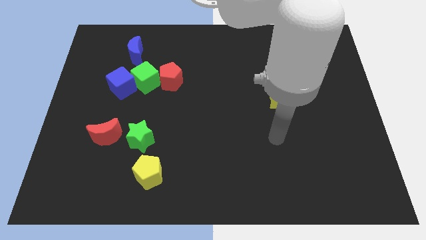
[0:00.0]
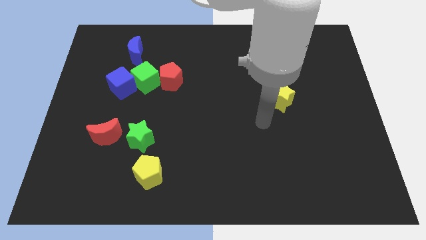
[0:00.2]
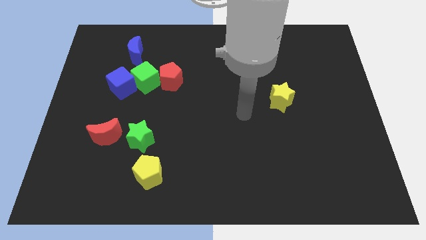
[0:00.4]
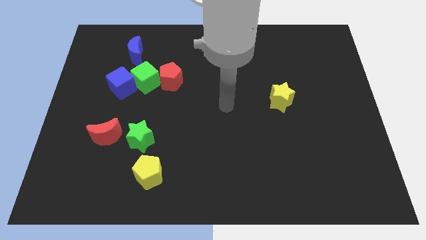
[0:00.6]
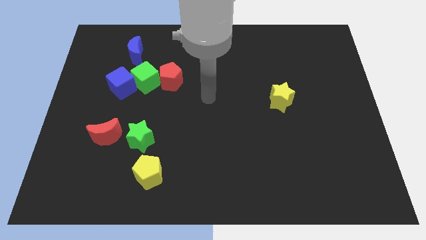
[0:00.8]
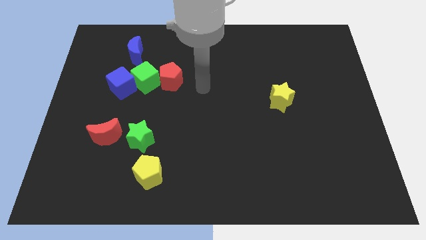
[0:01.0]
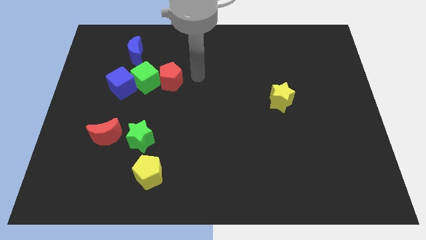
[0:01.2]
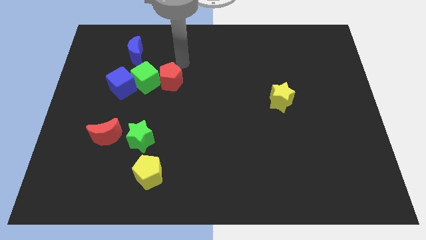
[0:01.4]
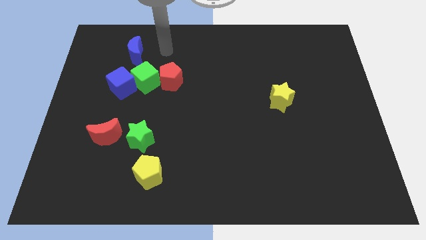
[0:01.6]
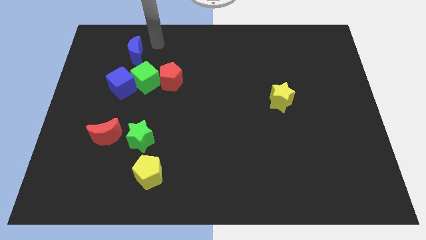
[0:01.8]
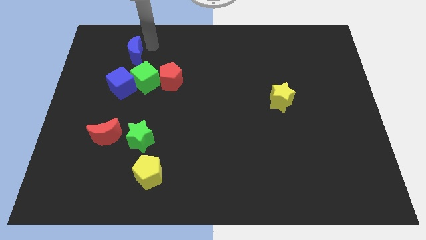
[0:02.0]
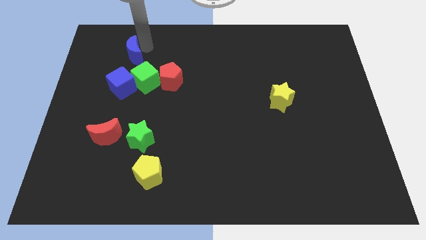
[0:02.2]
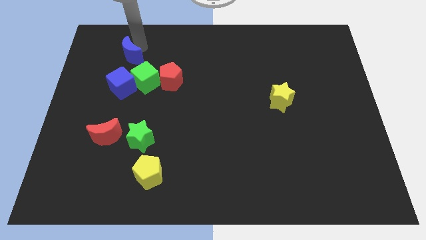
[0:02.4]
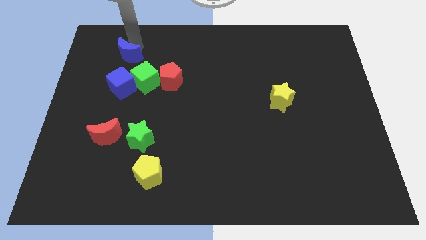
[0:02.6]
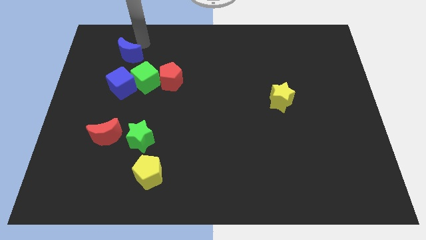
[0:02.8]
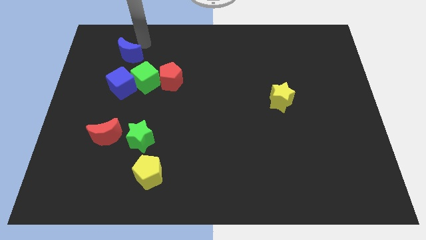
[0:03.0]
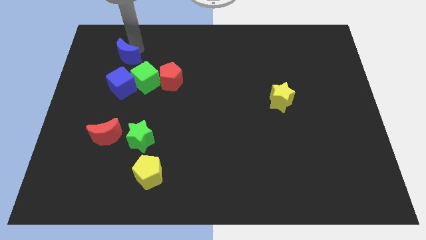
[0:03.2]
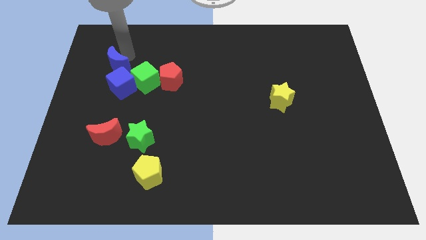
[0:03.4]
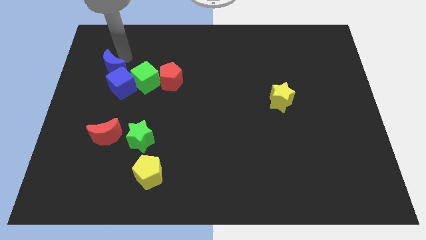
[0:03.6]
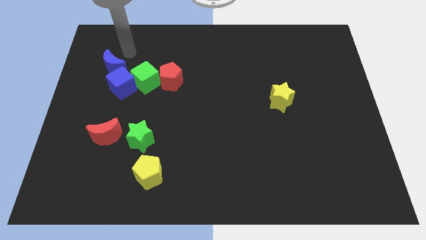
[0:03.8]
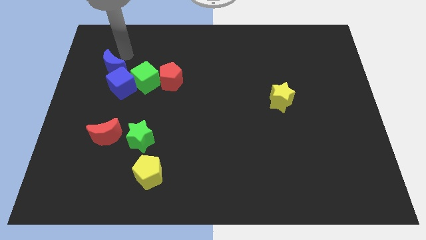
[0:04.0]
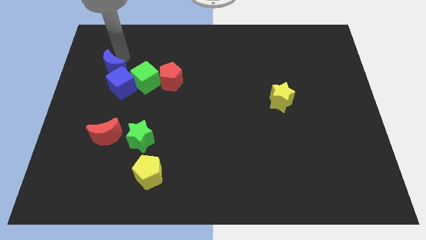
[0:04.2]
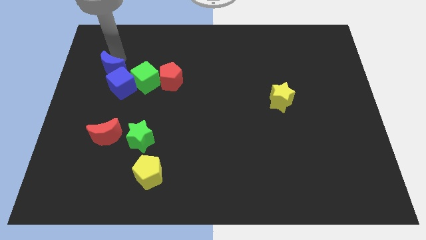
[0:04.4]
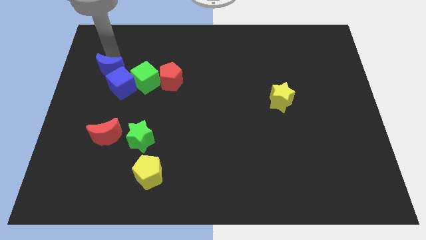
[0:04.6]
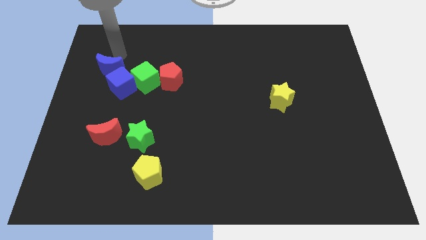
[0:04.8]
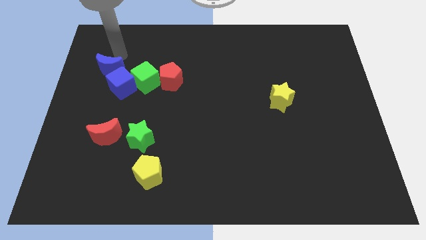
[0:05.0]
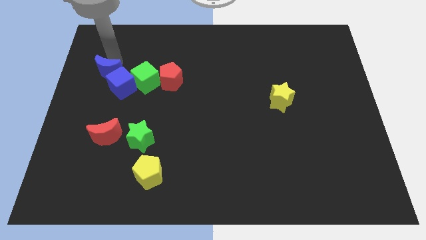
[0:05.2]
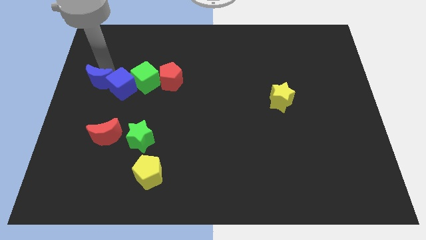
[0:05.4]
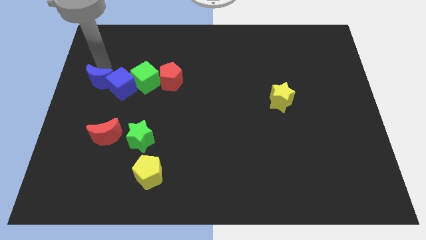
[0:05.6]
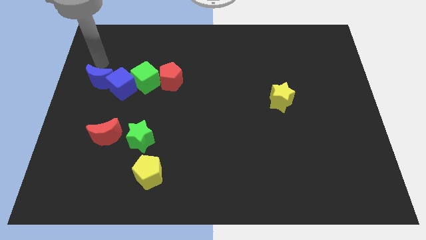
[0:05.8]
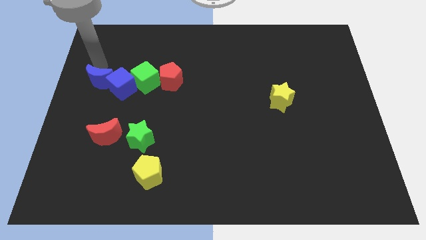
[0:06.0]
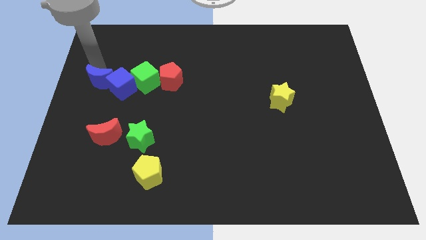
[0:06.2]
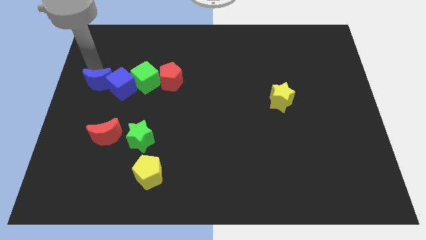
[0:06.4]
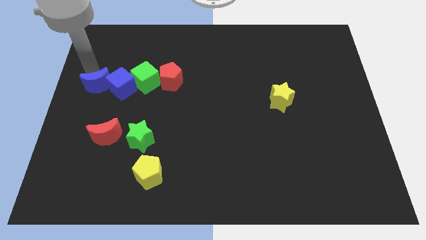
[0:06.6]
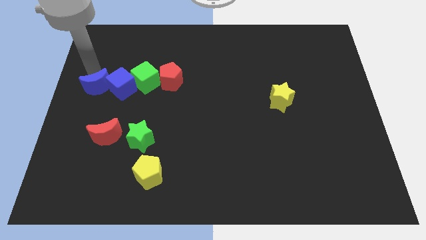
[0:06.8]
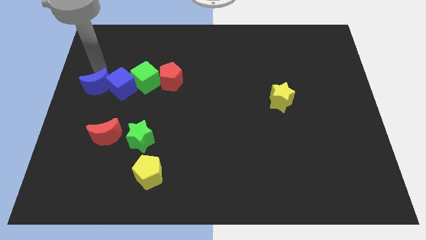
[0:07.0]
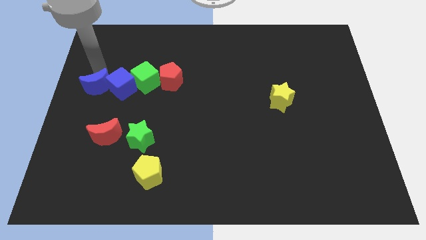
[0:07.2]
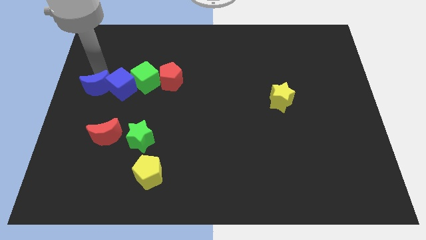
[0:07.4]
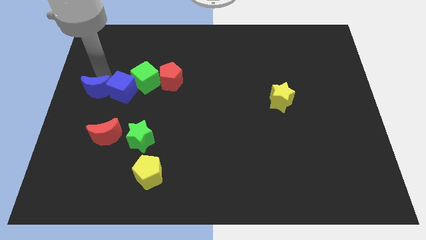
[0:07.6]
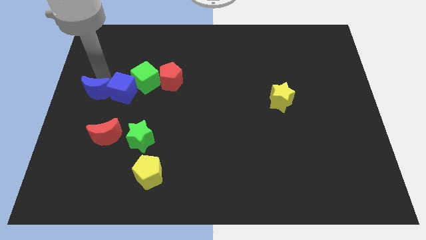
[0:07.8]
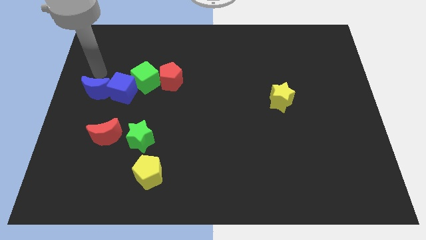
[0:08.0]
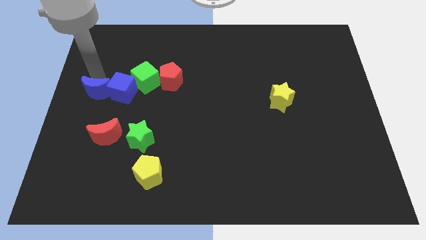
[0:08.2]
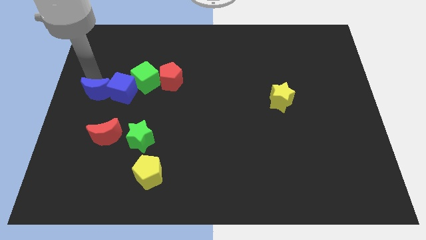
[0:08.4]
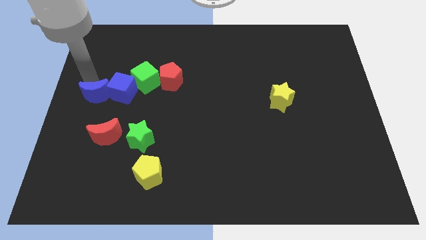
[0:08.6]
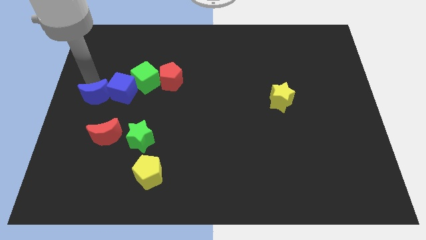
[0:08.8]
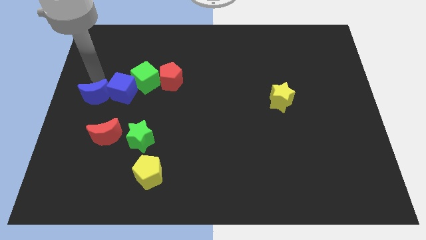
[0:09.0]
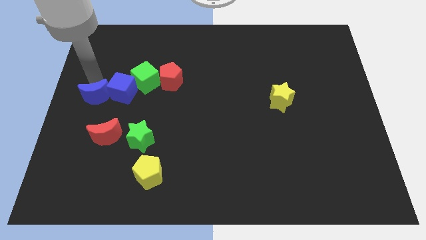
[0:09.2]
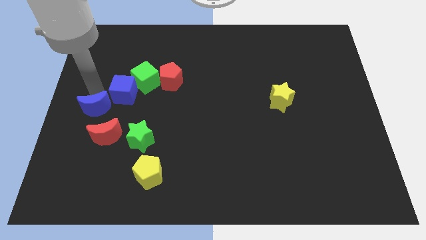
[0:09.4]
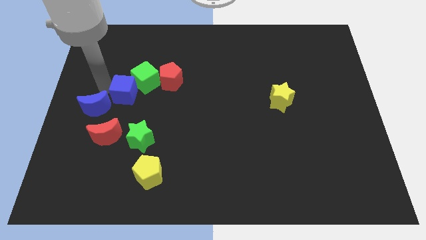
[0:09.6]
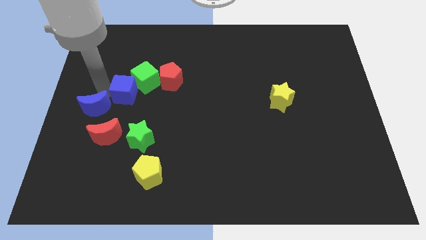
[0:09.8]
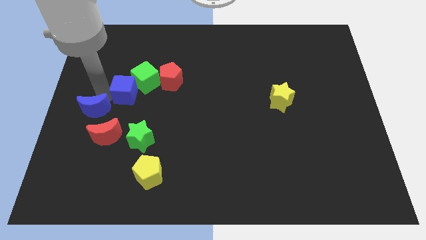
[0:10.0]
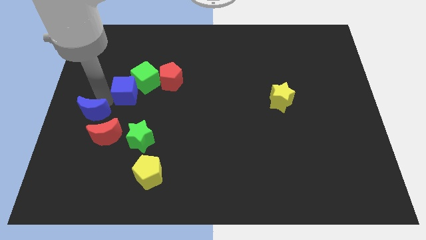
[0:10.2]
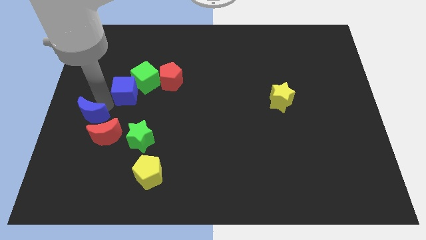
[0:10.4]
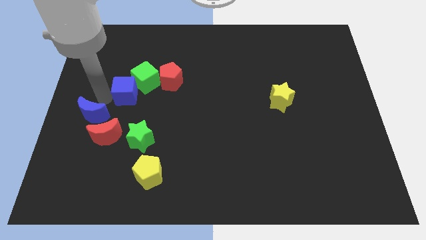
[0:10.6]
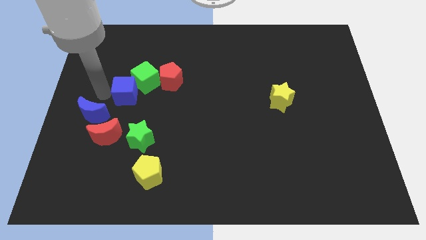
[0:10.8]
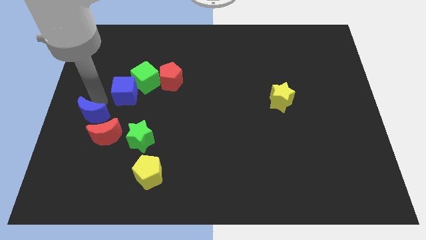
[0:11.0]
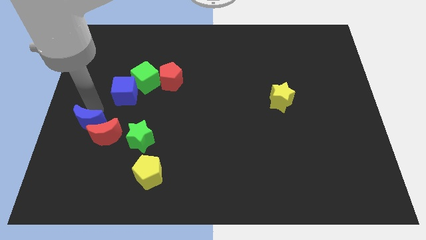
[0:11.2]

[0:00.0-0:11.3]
push the blue moon down

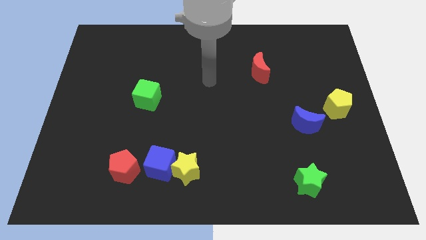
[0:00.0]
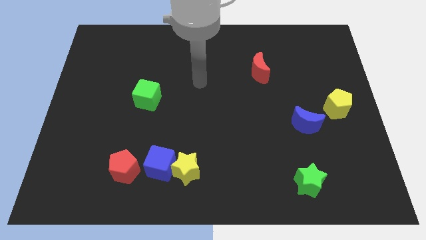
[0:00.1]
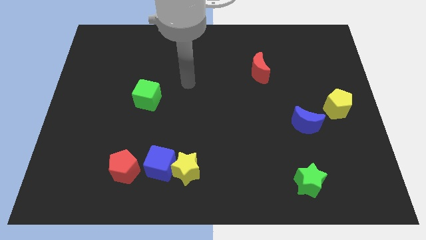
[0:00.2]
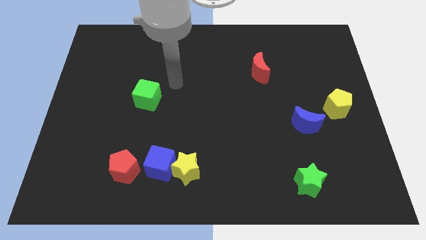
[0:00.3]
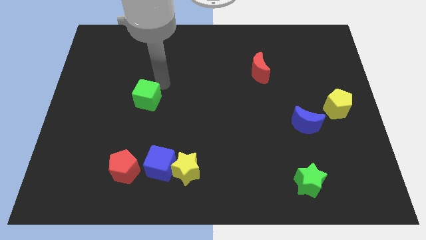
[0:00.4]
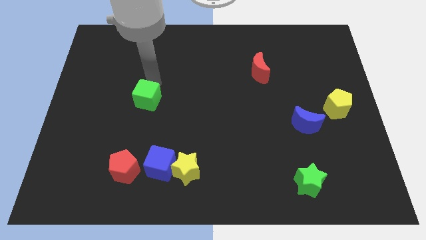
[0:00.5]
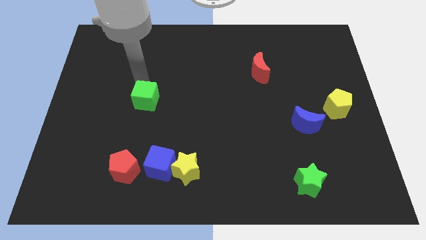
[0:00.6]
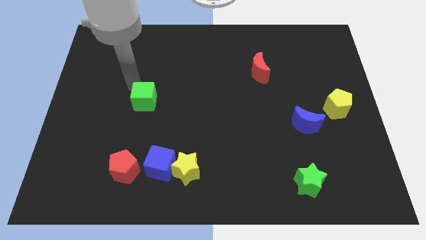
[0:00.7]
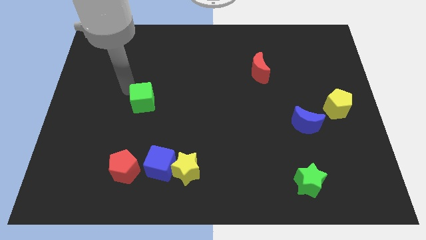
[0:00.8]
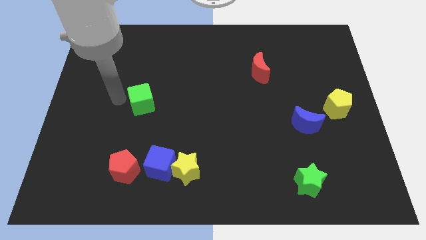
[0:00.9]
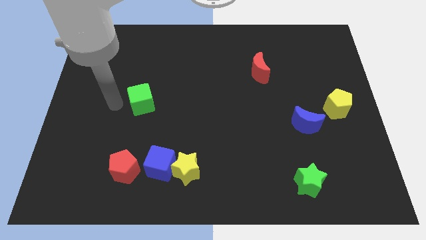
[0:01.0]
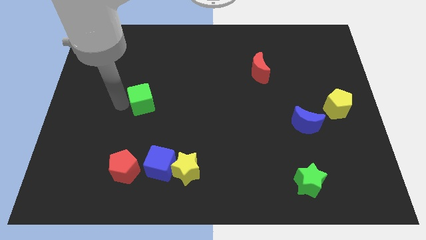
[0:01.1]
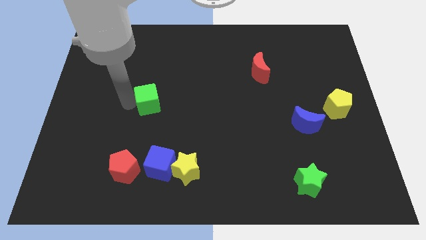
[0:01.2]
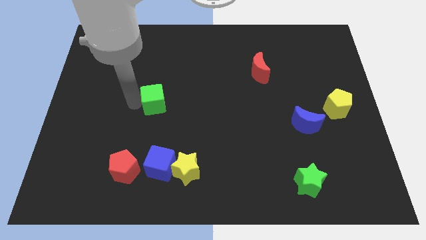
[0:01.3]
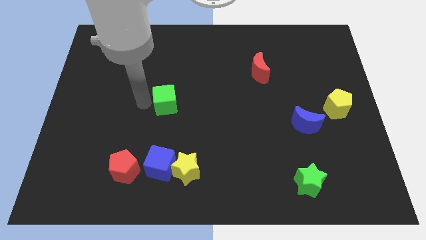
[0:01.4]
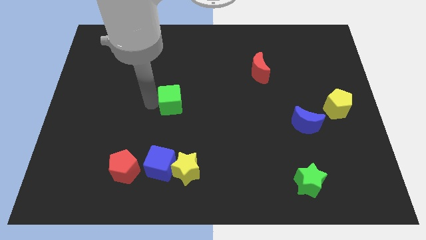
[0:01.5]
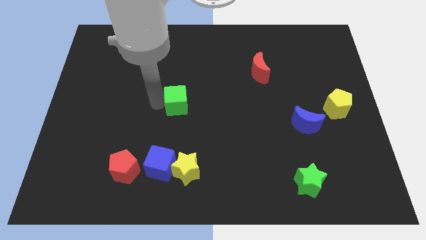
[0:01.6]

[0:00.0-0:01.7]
push the green cube slightly right

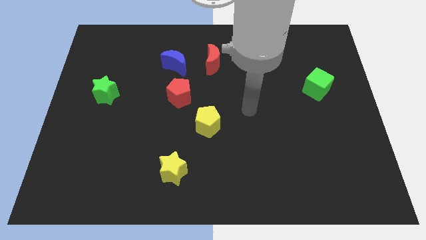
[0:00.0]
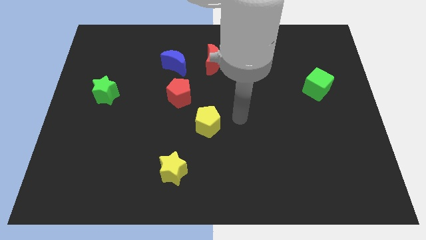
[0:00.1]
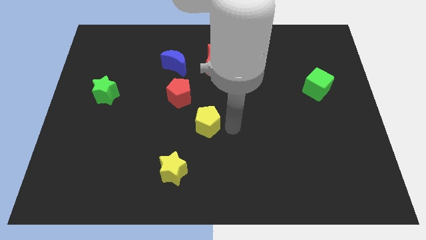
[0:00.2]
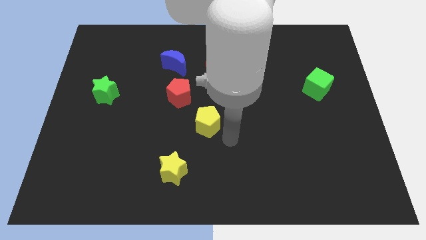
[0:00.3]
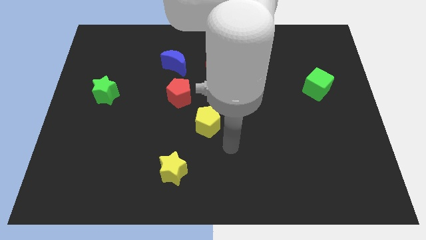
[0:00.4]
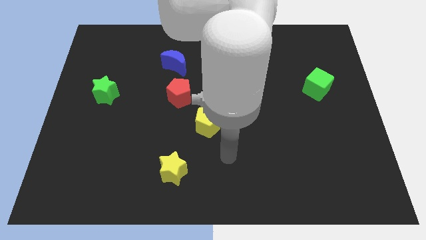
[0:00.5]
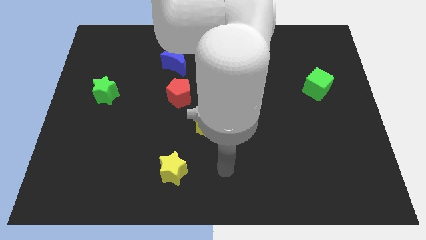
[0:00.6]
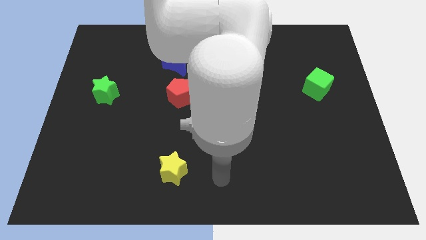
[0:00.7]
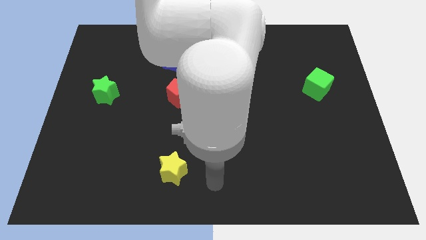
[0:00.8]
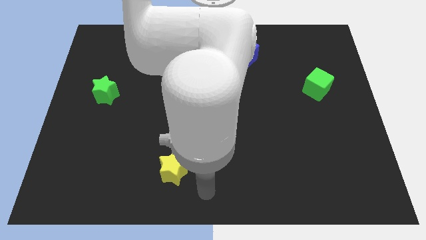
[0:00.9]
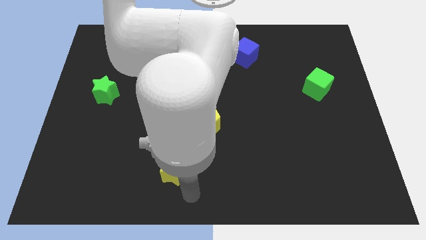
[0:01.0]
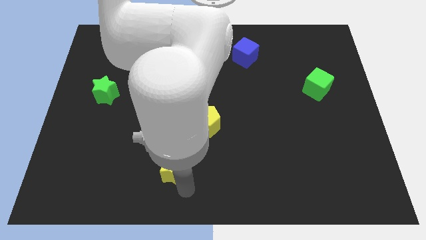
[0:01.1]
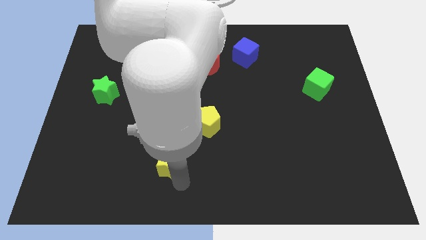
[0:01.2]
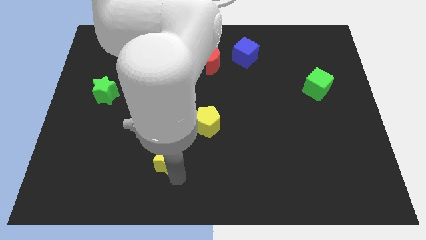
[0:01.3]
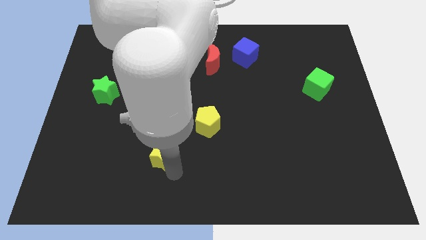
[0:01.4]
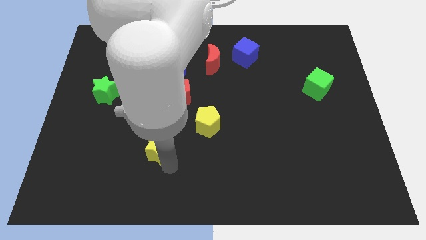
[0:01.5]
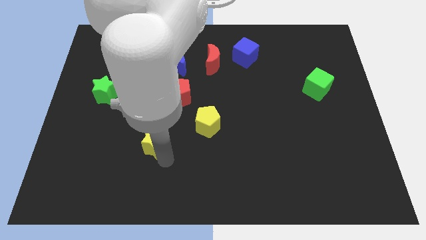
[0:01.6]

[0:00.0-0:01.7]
move the yellow star upwards and to the left diagonally a bit
